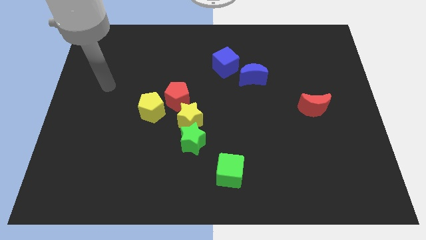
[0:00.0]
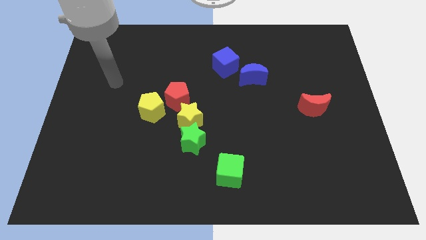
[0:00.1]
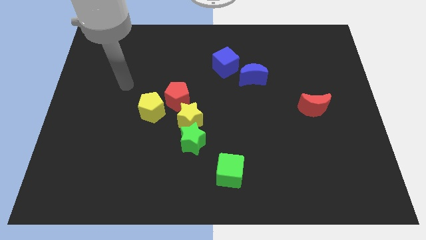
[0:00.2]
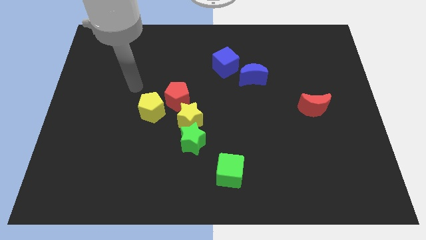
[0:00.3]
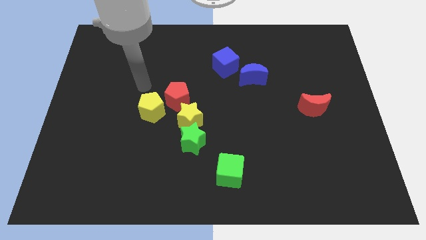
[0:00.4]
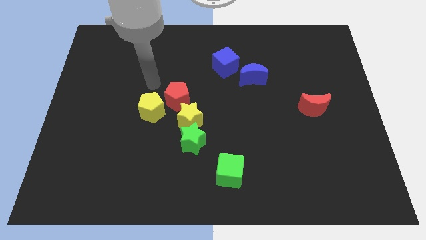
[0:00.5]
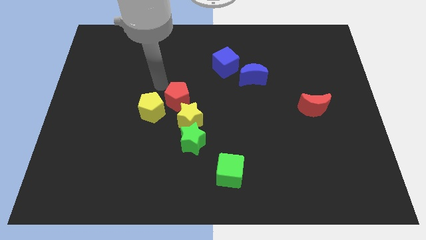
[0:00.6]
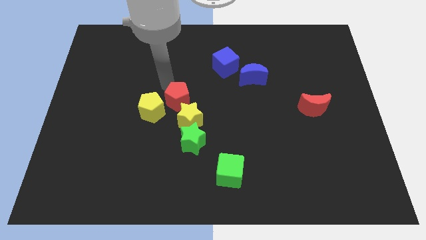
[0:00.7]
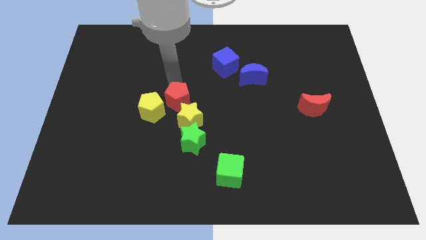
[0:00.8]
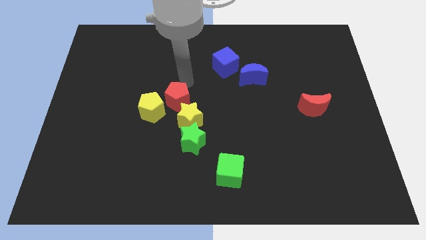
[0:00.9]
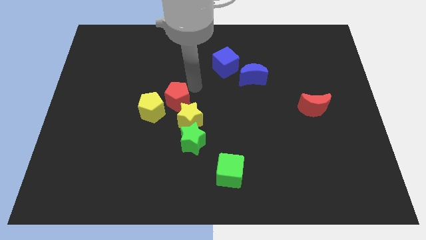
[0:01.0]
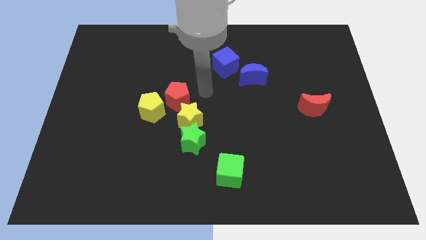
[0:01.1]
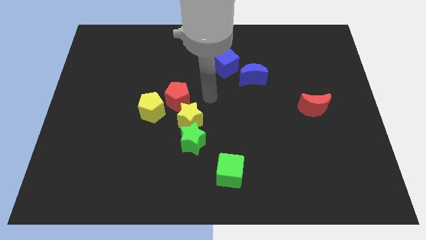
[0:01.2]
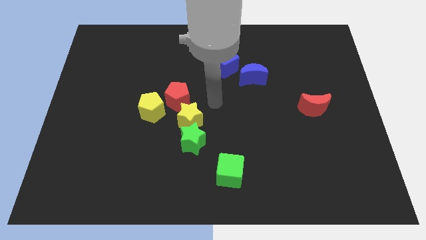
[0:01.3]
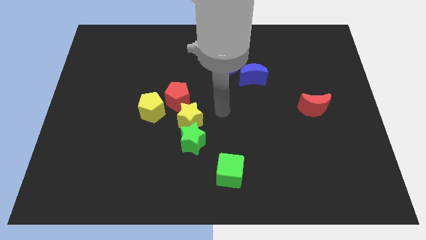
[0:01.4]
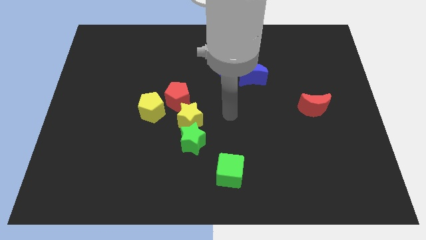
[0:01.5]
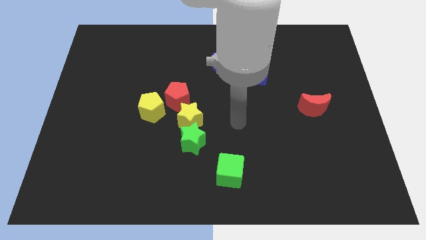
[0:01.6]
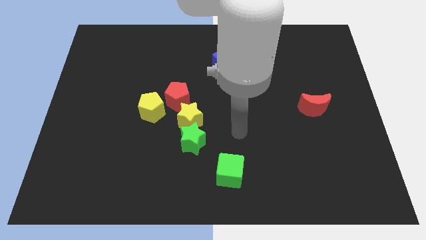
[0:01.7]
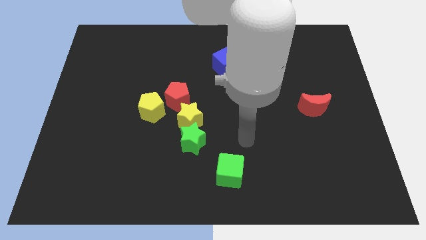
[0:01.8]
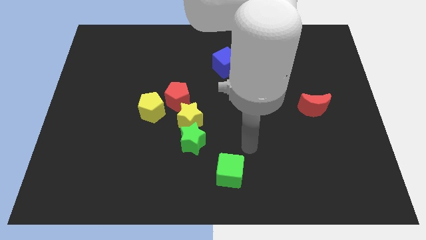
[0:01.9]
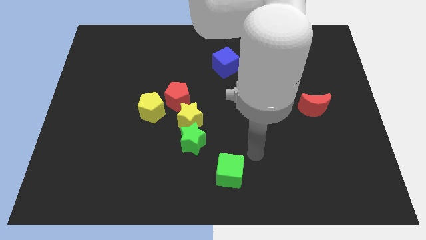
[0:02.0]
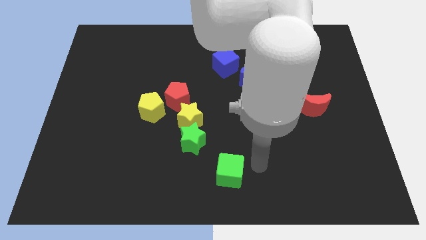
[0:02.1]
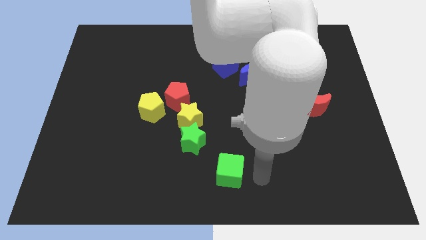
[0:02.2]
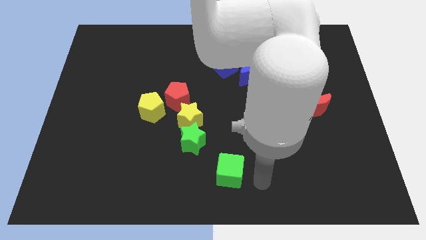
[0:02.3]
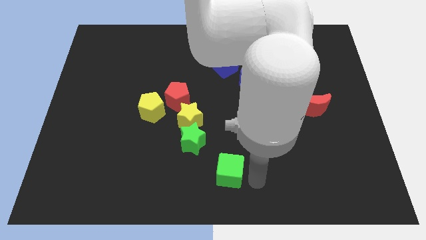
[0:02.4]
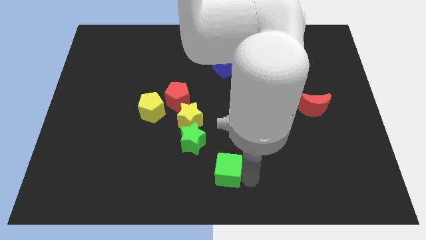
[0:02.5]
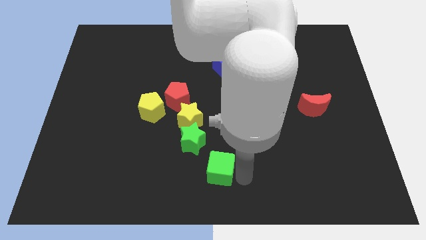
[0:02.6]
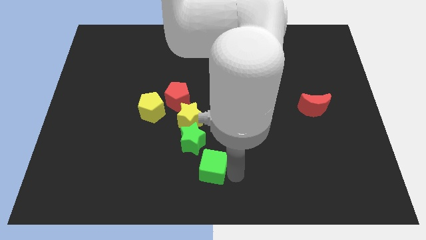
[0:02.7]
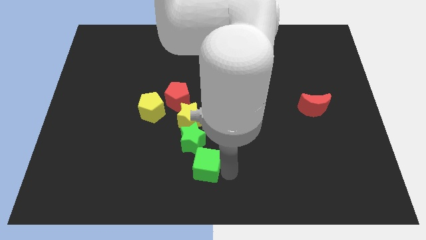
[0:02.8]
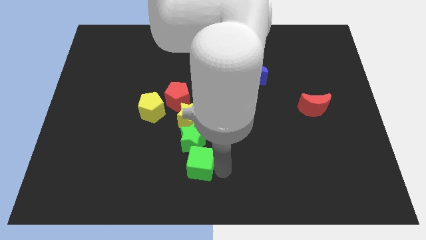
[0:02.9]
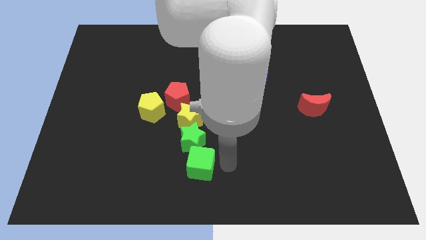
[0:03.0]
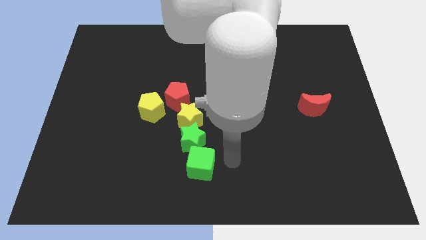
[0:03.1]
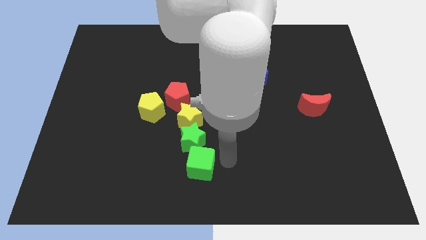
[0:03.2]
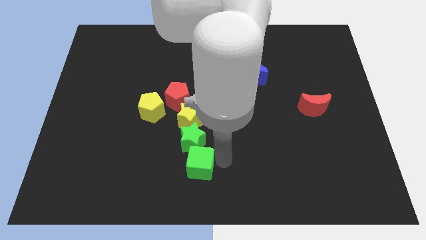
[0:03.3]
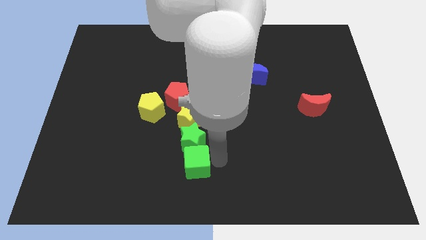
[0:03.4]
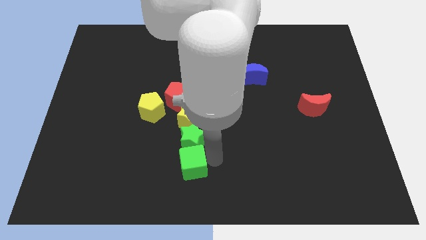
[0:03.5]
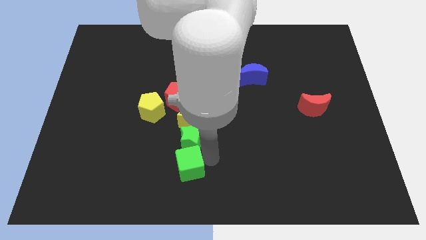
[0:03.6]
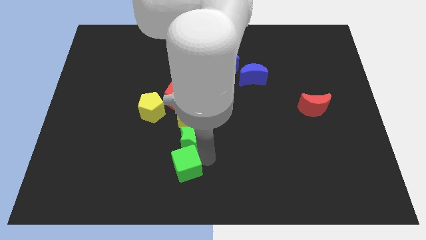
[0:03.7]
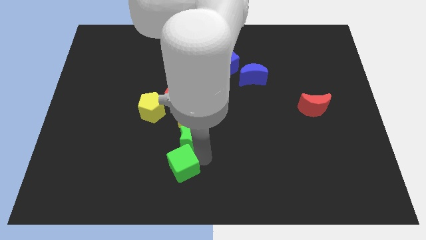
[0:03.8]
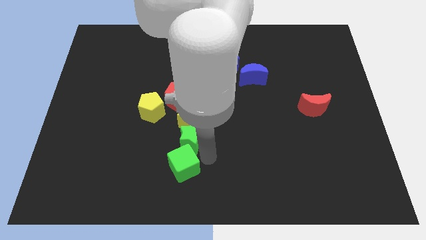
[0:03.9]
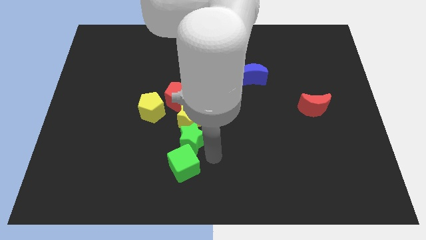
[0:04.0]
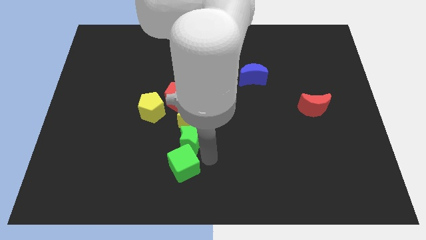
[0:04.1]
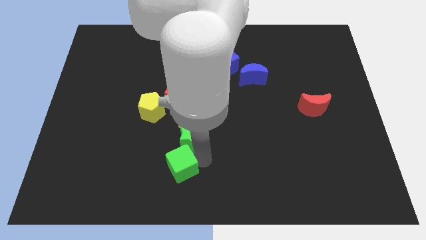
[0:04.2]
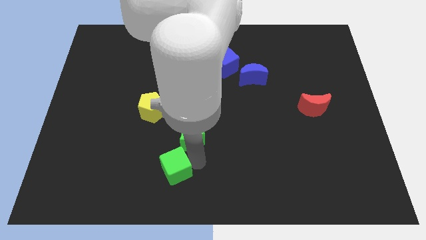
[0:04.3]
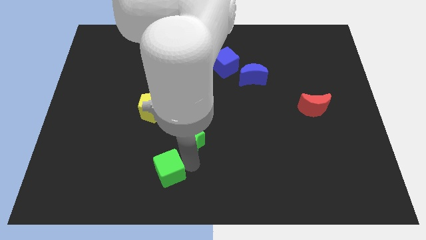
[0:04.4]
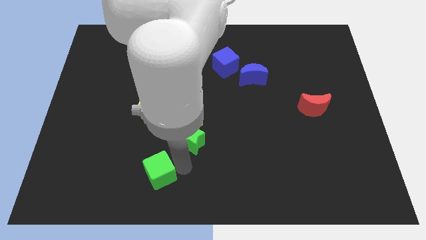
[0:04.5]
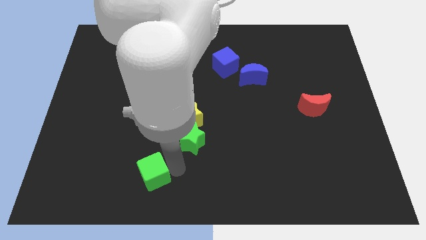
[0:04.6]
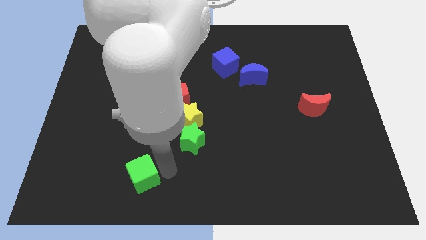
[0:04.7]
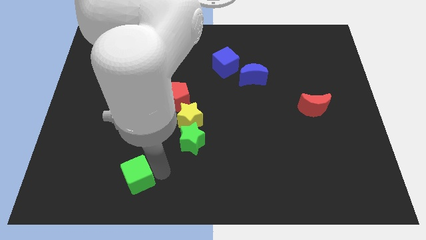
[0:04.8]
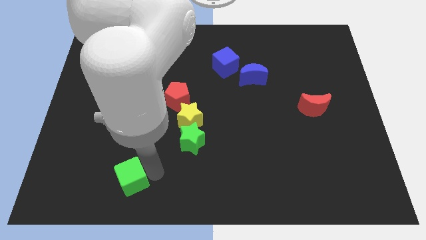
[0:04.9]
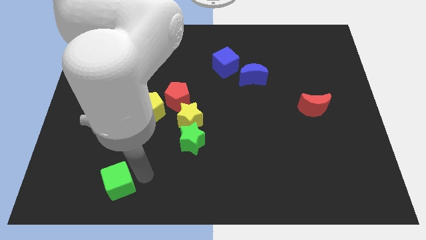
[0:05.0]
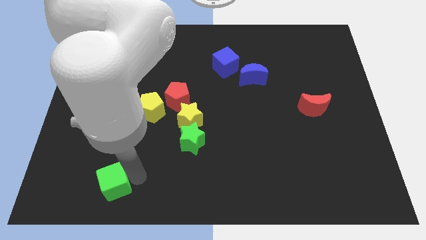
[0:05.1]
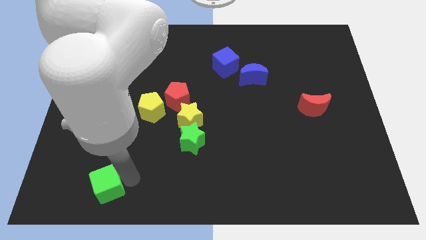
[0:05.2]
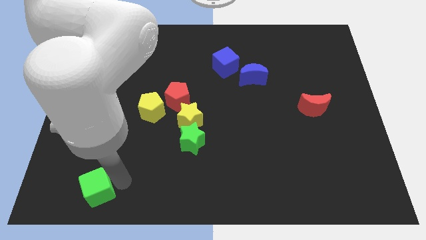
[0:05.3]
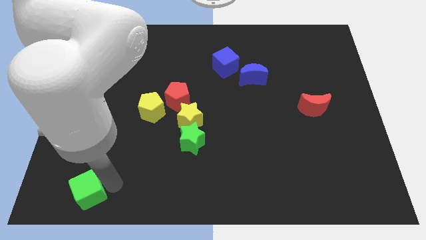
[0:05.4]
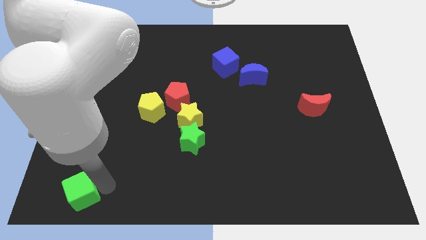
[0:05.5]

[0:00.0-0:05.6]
slide the green cube to the bottom left
